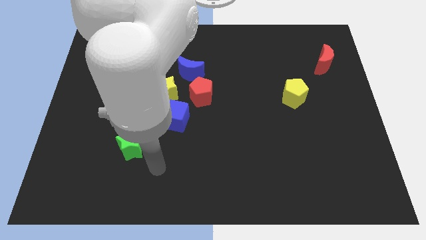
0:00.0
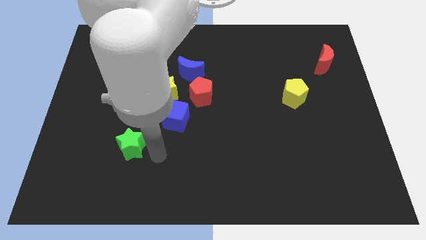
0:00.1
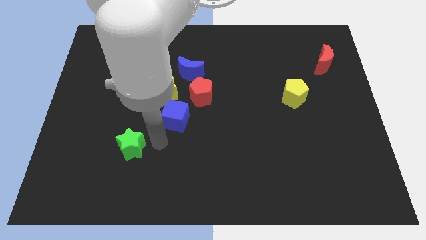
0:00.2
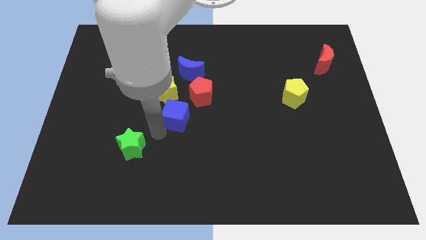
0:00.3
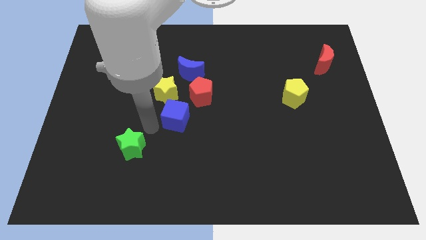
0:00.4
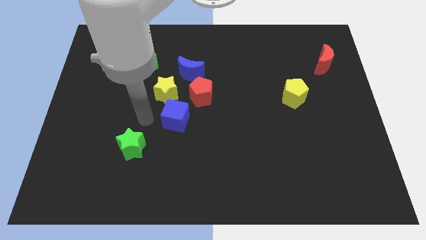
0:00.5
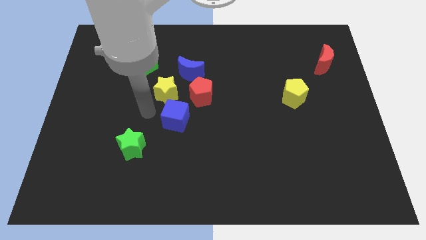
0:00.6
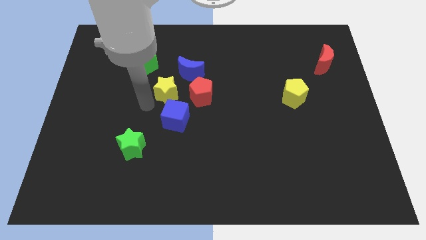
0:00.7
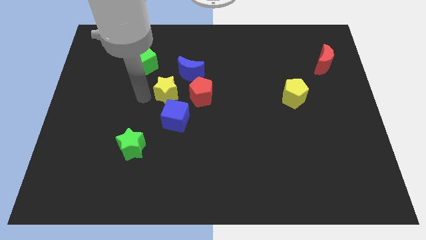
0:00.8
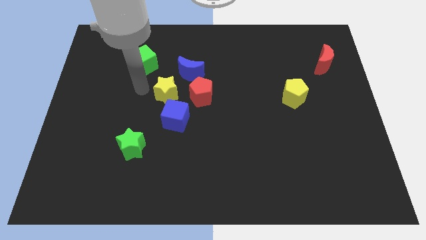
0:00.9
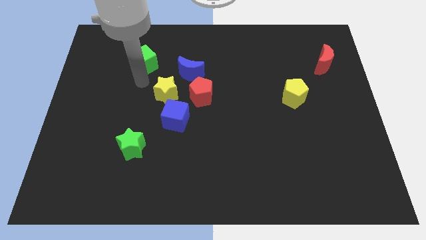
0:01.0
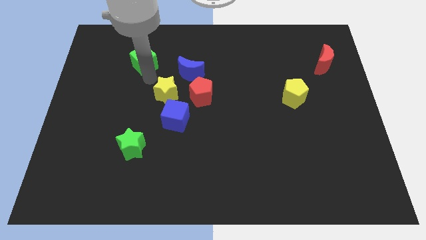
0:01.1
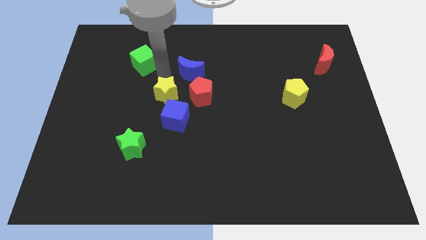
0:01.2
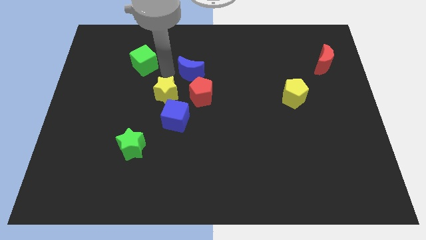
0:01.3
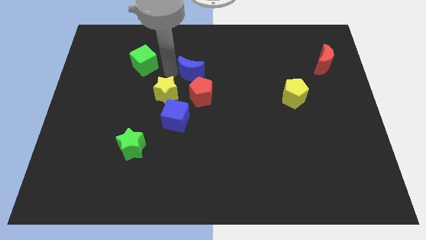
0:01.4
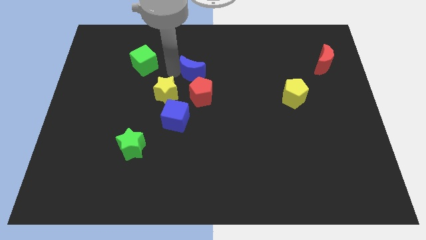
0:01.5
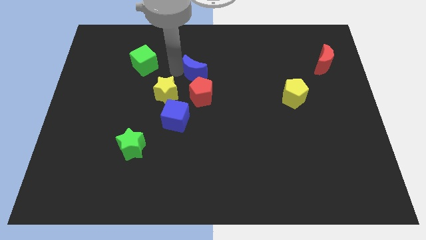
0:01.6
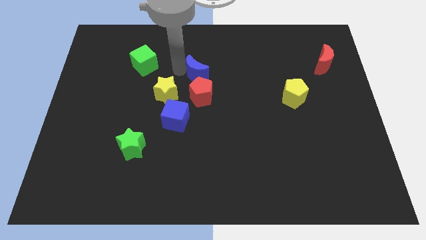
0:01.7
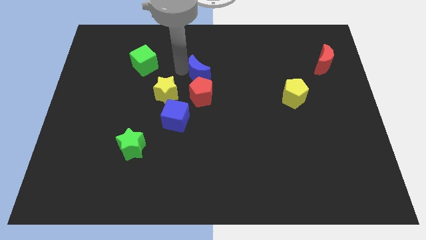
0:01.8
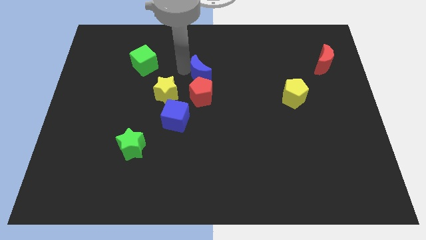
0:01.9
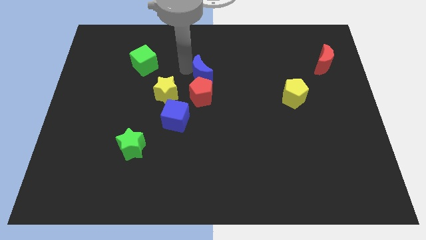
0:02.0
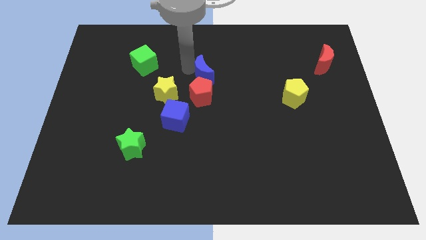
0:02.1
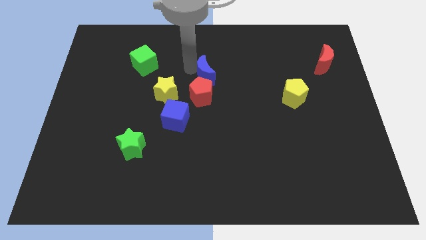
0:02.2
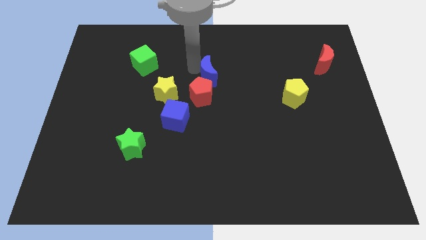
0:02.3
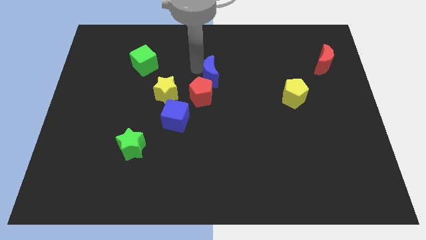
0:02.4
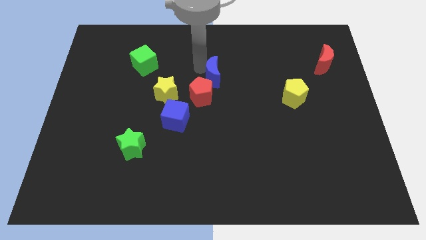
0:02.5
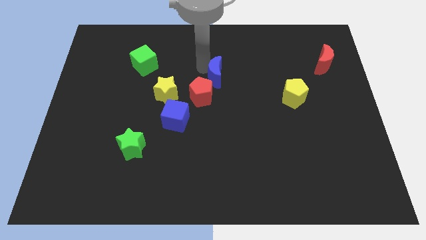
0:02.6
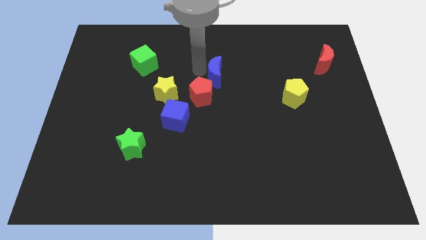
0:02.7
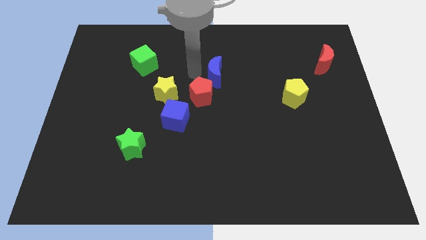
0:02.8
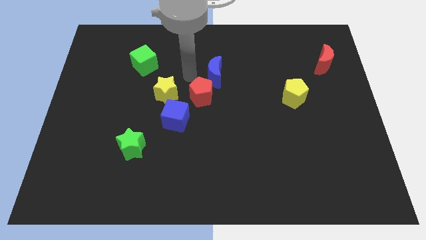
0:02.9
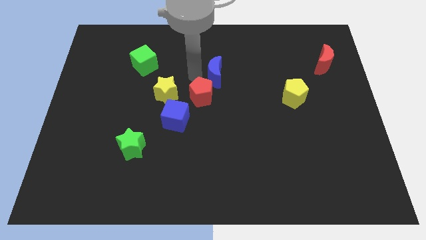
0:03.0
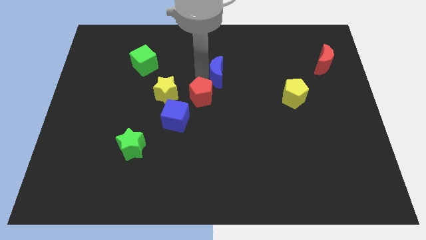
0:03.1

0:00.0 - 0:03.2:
push the blue moon a little right

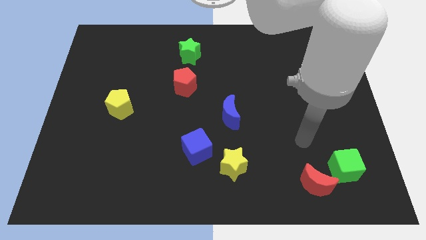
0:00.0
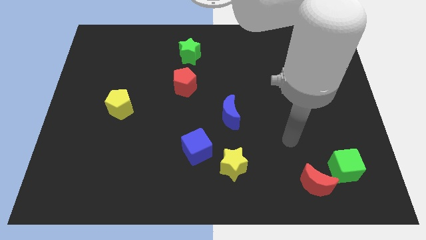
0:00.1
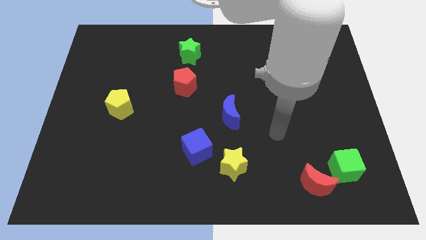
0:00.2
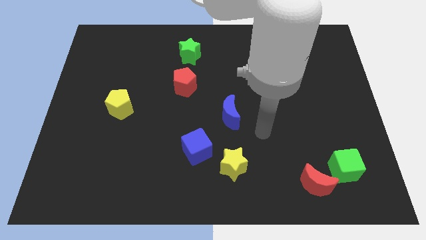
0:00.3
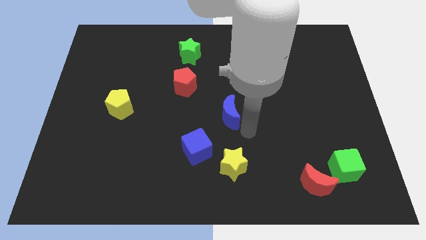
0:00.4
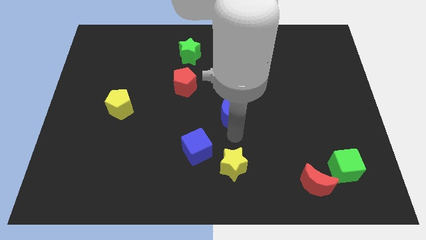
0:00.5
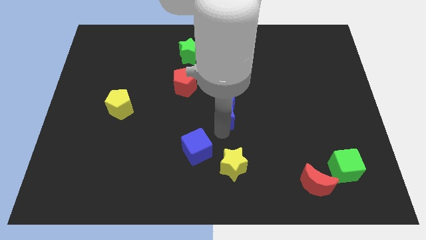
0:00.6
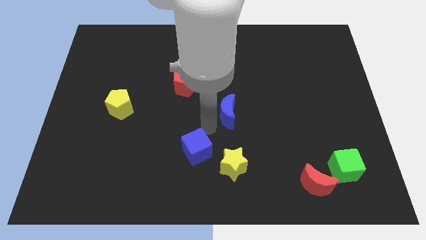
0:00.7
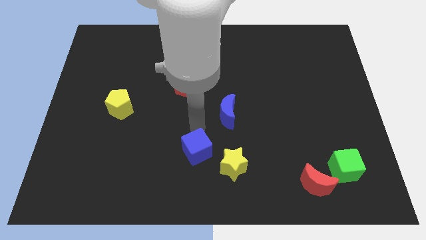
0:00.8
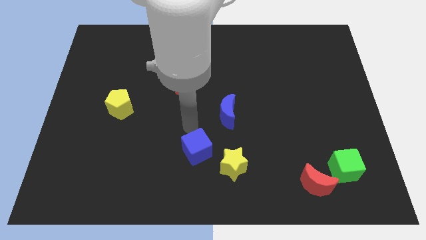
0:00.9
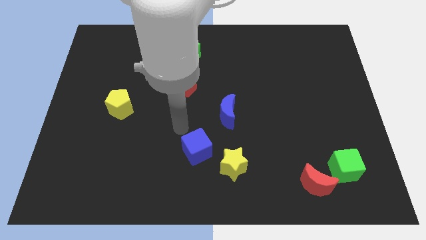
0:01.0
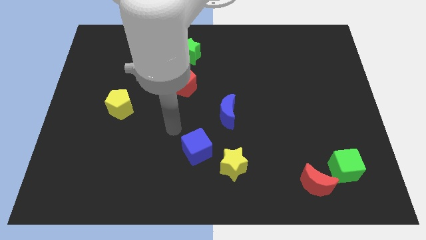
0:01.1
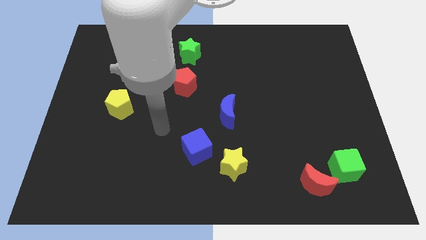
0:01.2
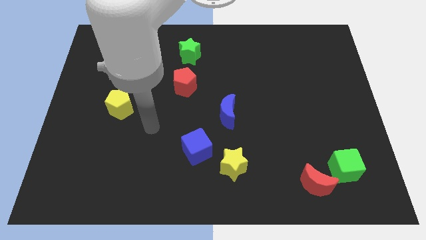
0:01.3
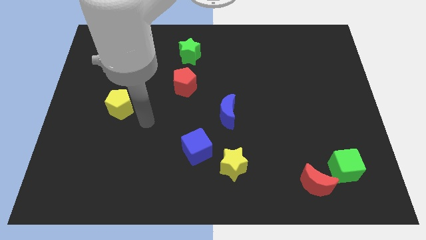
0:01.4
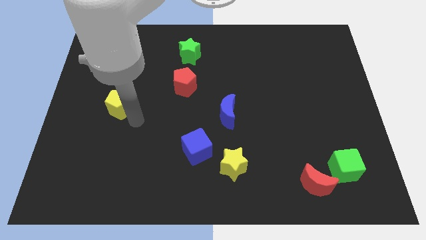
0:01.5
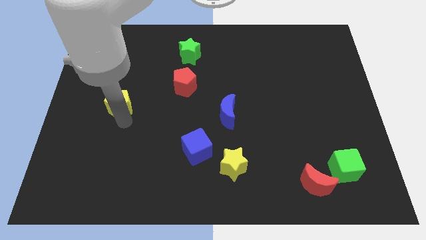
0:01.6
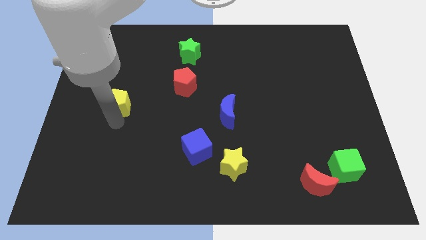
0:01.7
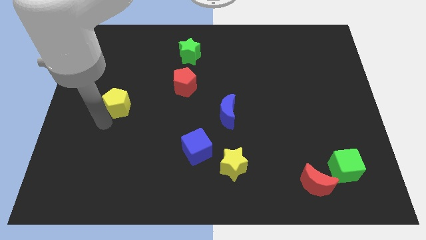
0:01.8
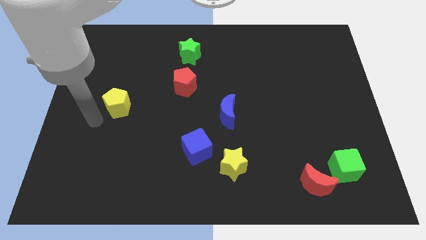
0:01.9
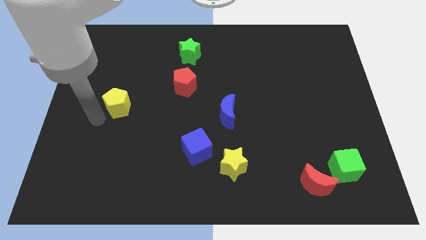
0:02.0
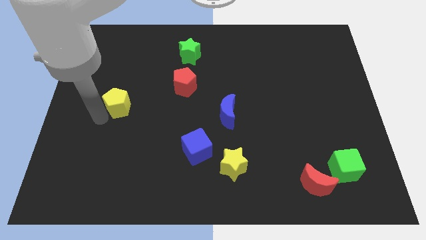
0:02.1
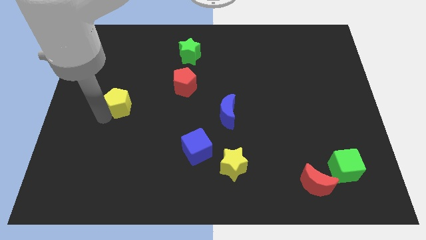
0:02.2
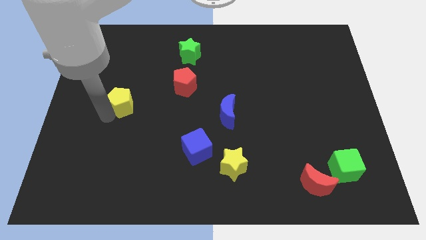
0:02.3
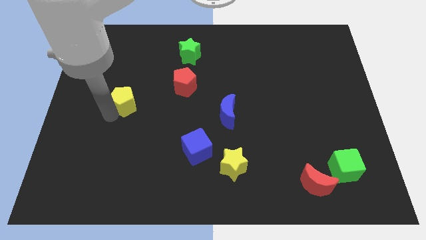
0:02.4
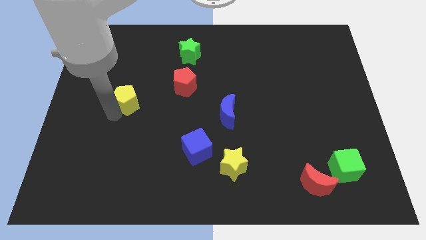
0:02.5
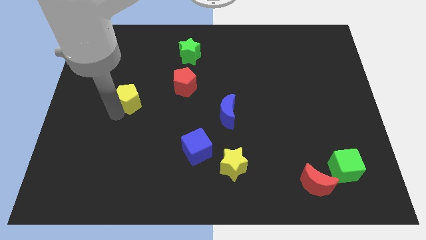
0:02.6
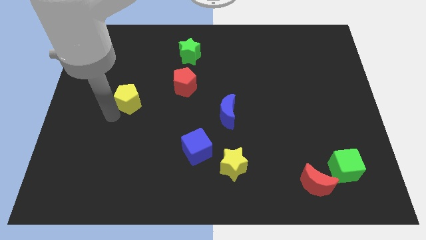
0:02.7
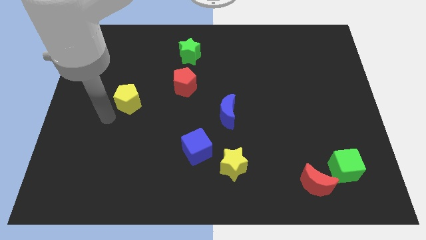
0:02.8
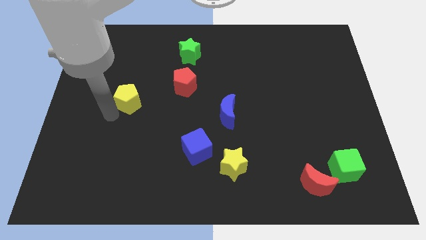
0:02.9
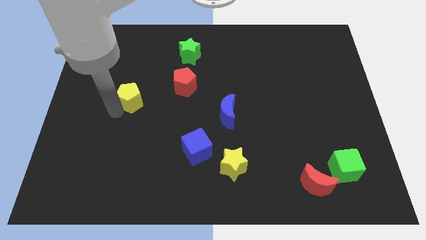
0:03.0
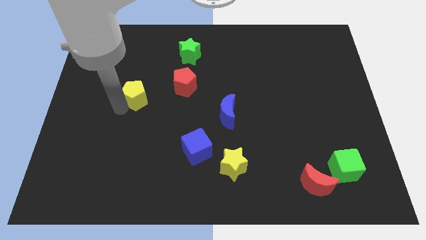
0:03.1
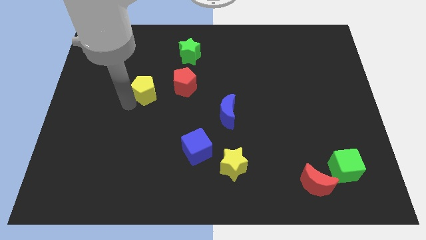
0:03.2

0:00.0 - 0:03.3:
slightly move the yellow pentagon diagonally upwards and to the right

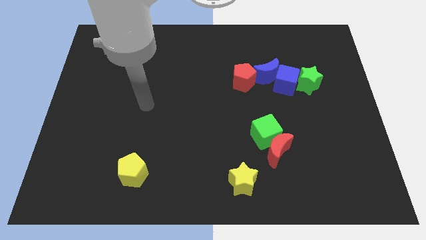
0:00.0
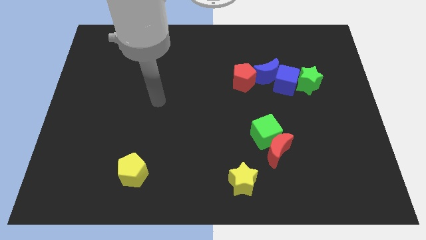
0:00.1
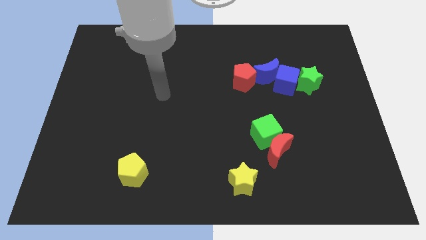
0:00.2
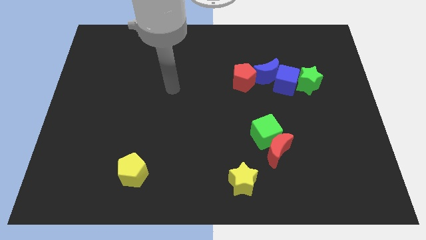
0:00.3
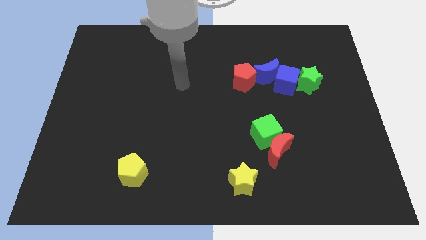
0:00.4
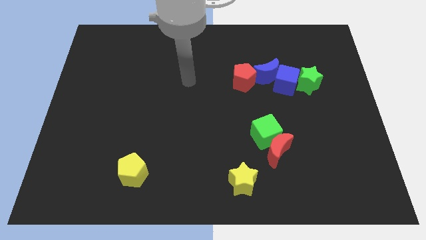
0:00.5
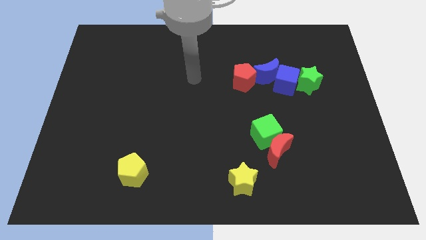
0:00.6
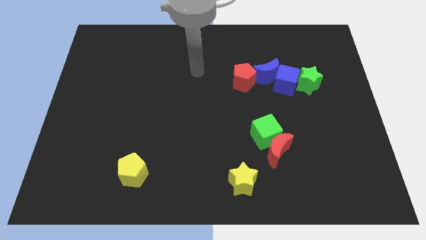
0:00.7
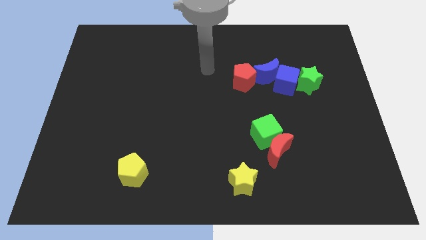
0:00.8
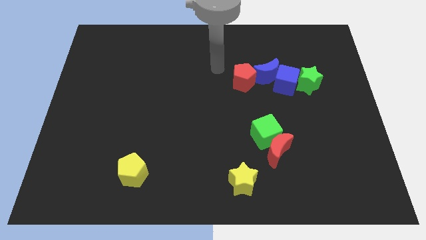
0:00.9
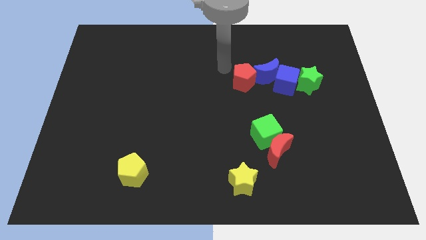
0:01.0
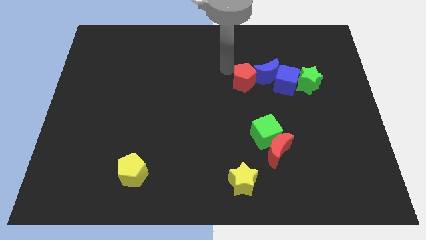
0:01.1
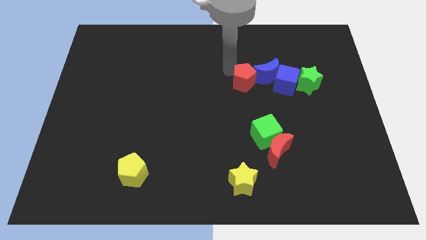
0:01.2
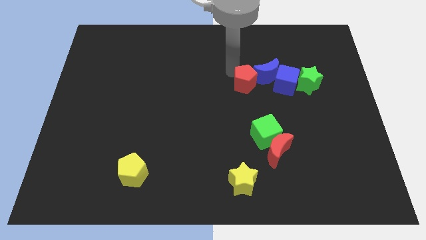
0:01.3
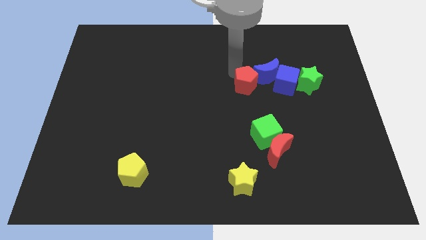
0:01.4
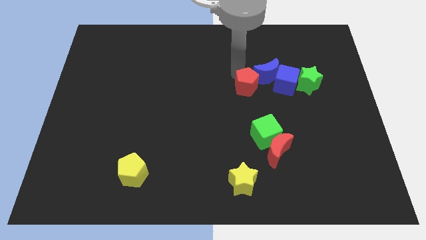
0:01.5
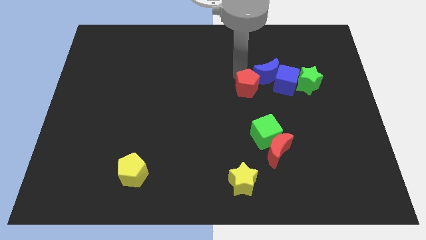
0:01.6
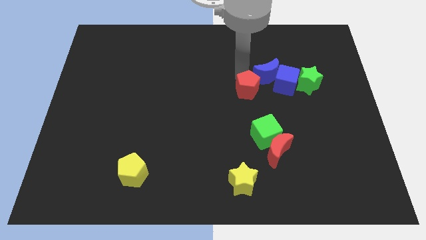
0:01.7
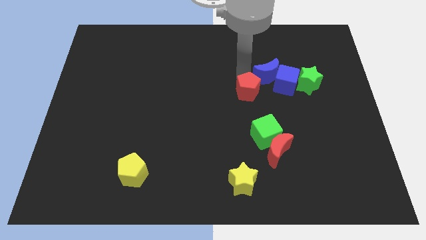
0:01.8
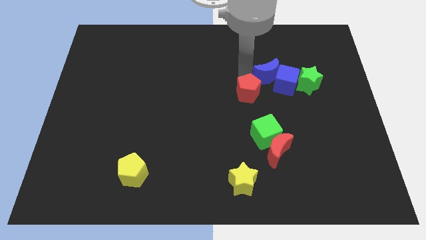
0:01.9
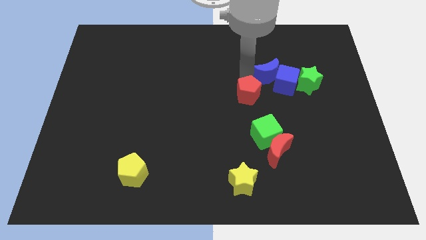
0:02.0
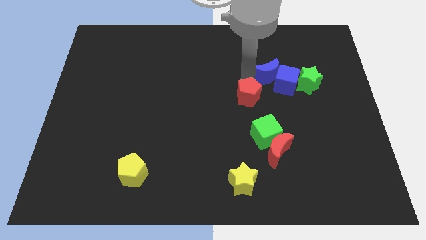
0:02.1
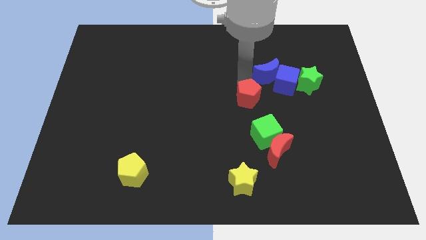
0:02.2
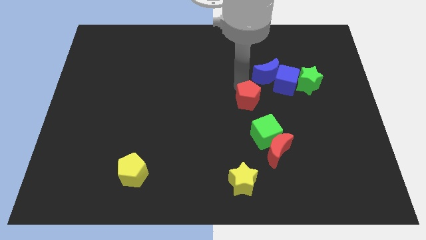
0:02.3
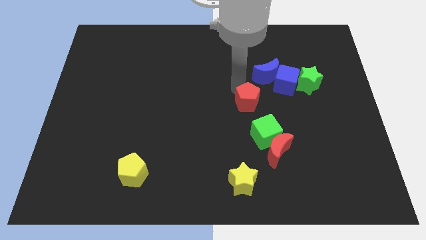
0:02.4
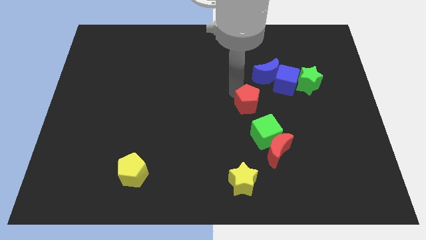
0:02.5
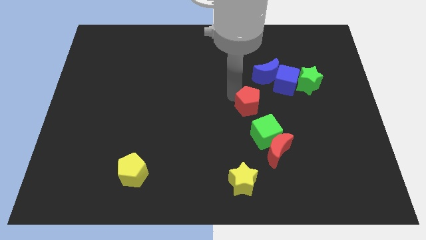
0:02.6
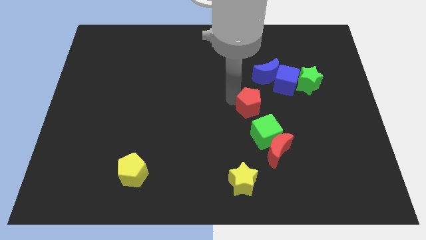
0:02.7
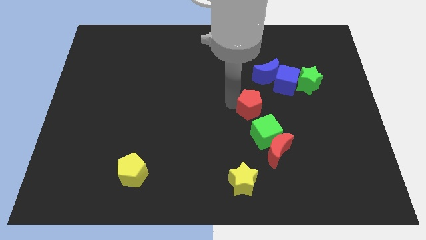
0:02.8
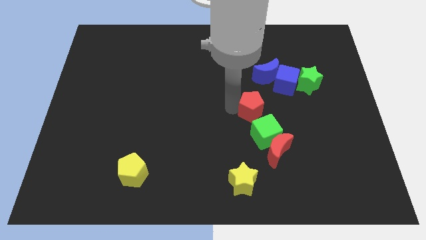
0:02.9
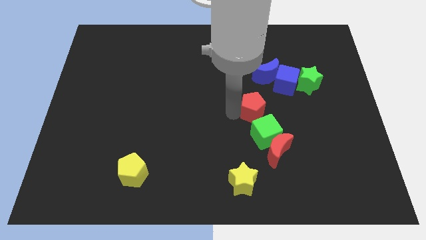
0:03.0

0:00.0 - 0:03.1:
slightly move the red pentagon downwards and right
